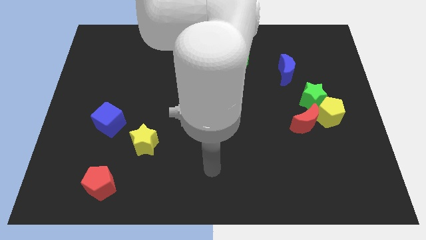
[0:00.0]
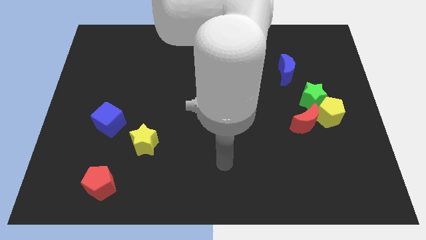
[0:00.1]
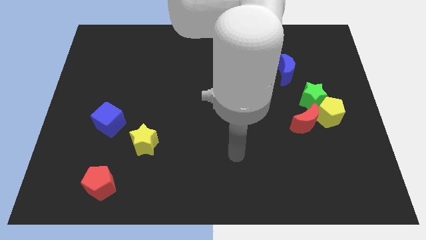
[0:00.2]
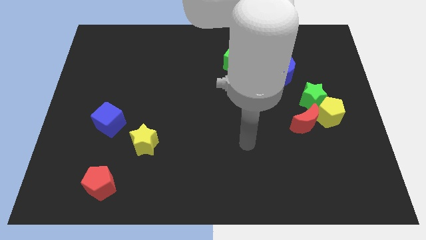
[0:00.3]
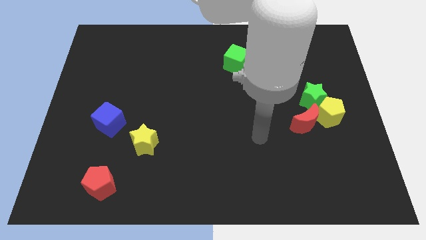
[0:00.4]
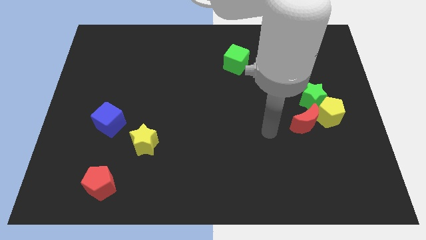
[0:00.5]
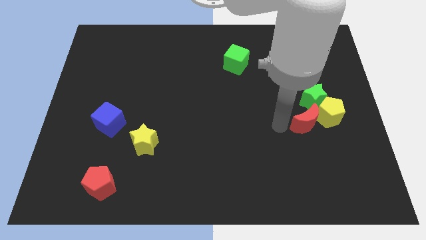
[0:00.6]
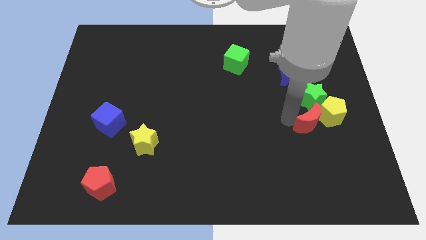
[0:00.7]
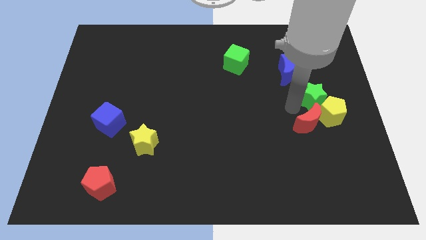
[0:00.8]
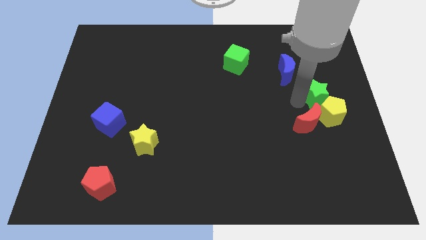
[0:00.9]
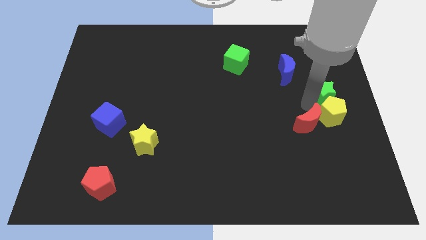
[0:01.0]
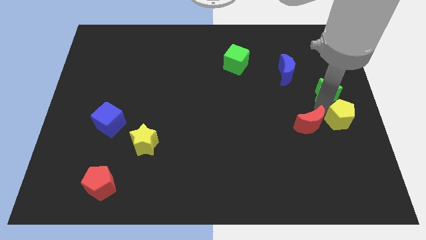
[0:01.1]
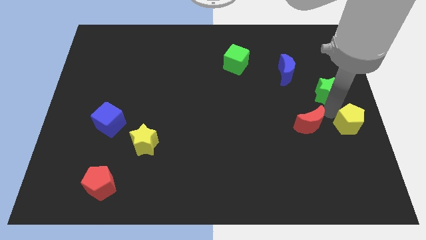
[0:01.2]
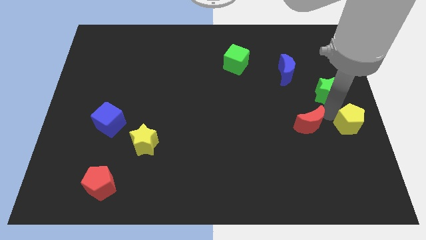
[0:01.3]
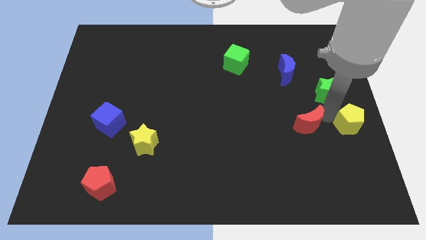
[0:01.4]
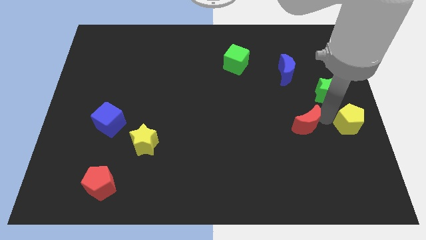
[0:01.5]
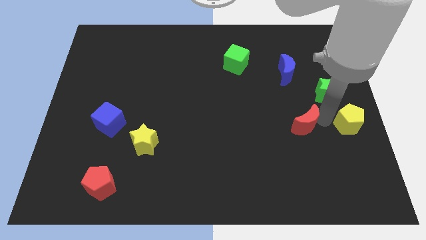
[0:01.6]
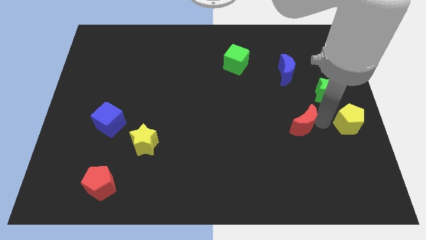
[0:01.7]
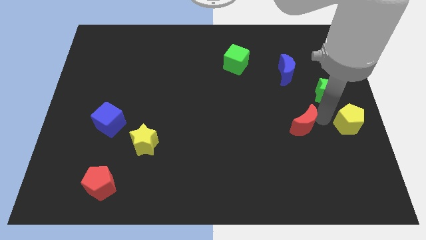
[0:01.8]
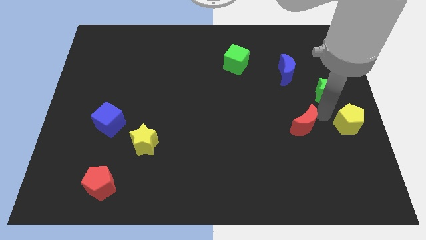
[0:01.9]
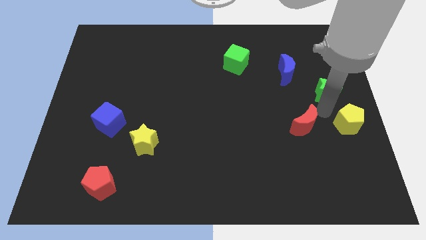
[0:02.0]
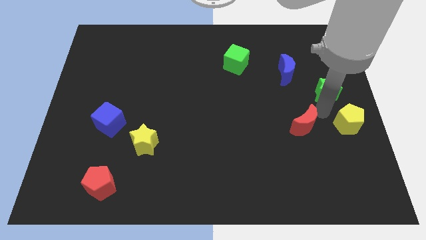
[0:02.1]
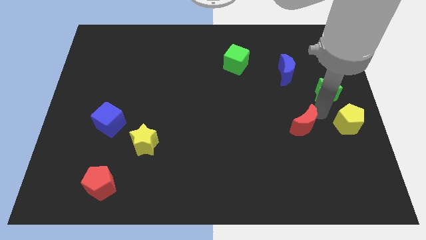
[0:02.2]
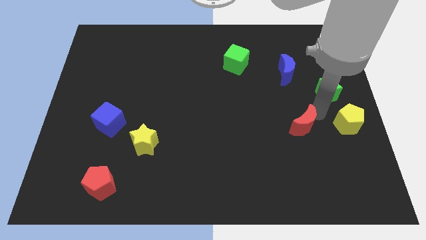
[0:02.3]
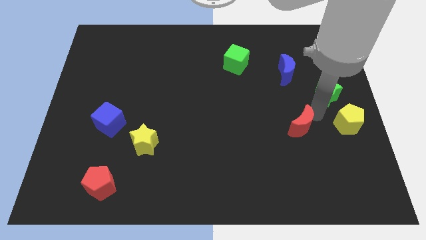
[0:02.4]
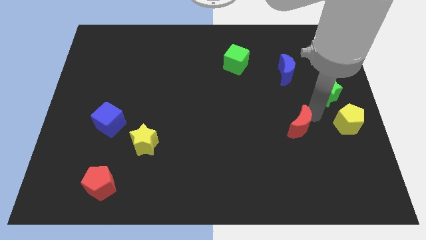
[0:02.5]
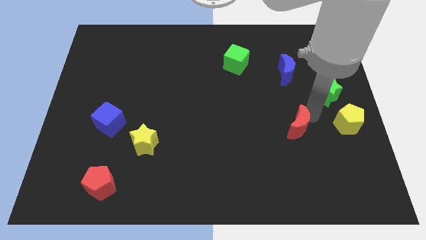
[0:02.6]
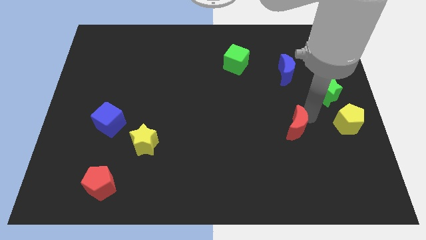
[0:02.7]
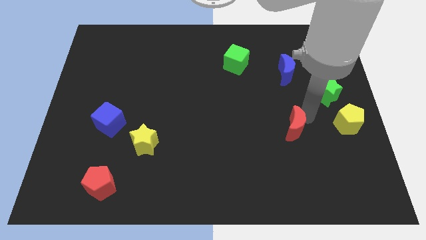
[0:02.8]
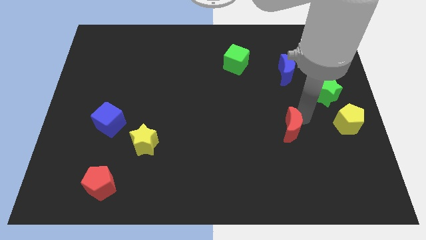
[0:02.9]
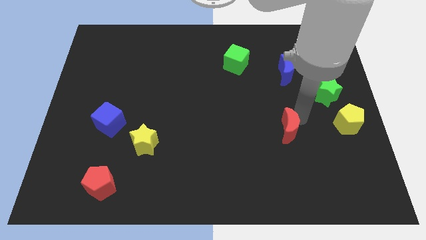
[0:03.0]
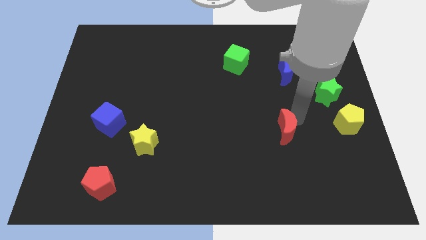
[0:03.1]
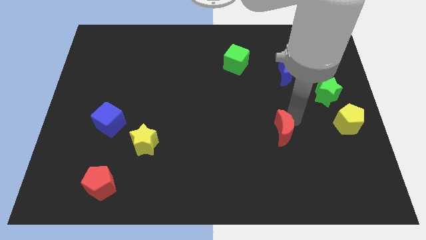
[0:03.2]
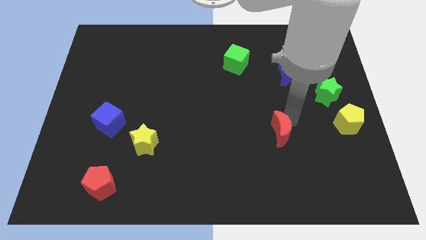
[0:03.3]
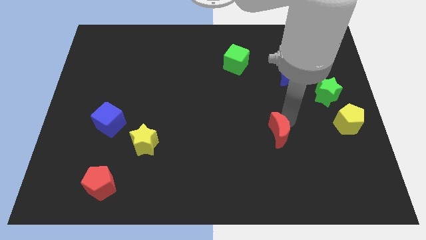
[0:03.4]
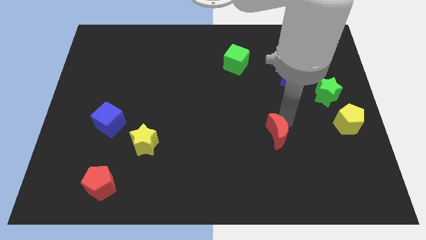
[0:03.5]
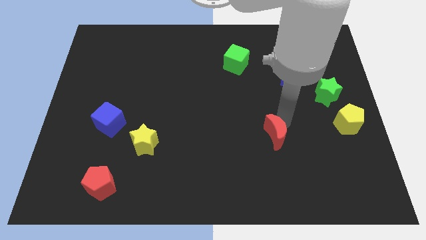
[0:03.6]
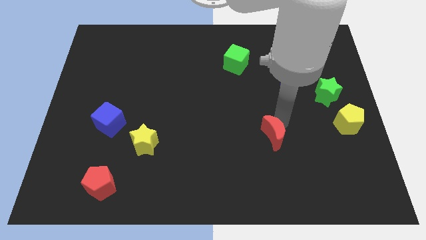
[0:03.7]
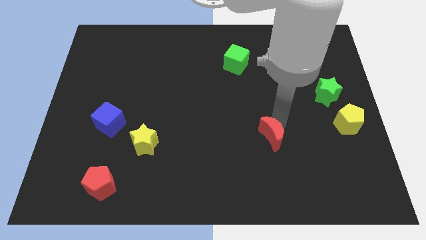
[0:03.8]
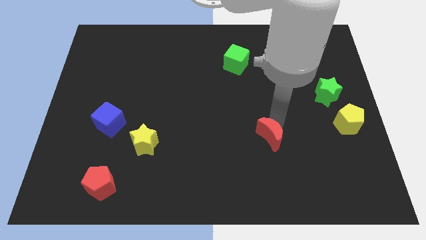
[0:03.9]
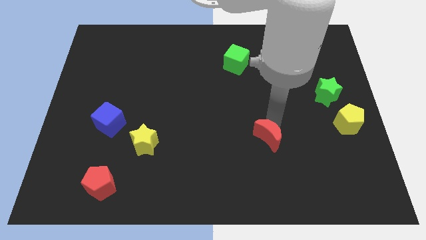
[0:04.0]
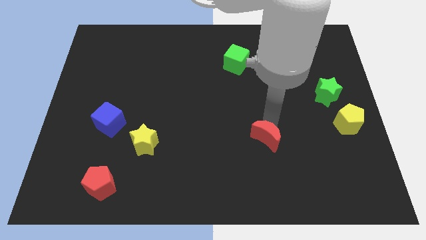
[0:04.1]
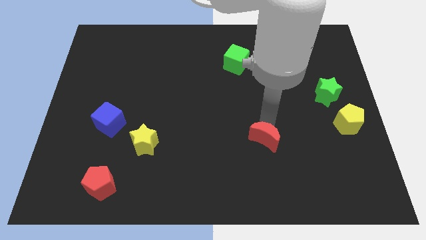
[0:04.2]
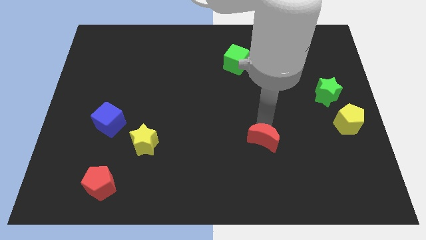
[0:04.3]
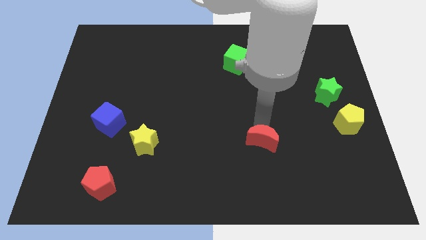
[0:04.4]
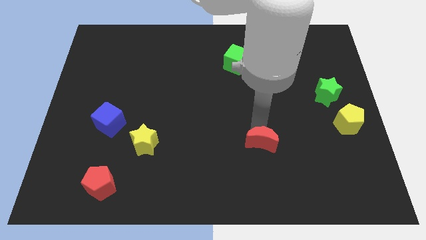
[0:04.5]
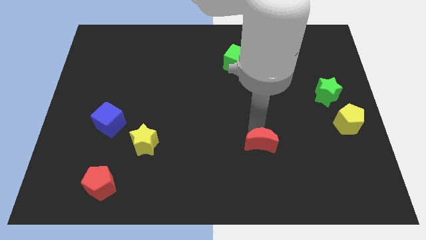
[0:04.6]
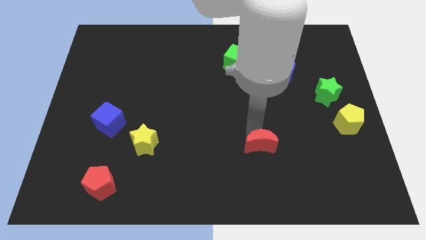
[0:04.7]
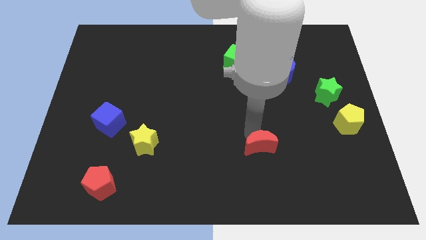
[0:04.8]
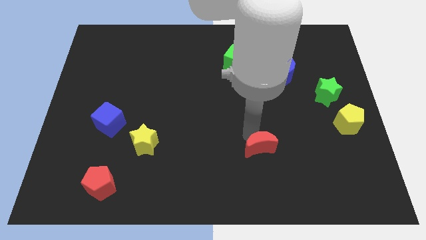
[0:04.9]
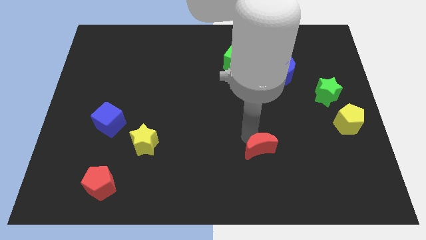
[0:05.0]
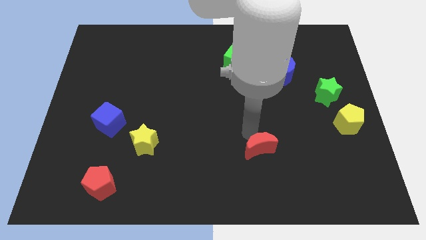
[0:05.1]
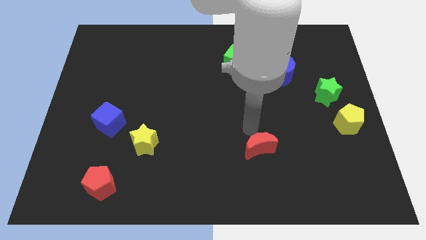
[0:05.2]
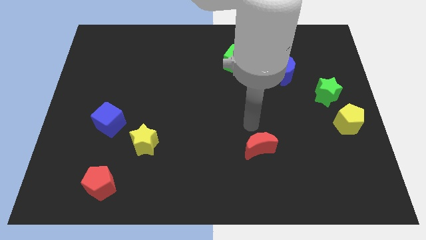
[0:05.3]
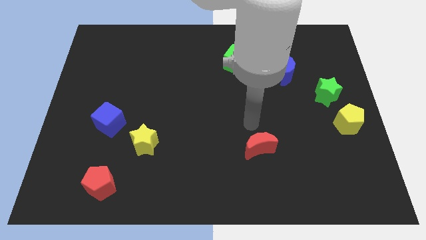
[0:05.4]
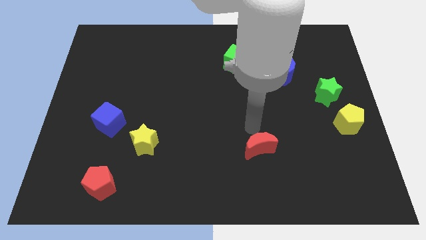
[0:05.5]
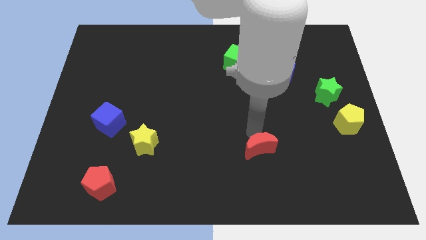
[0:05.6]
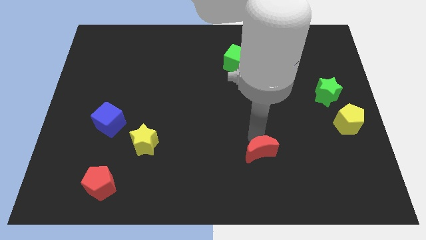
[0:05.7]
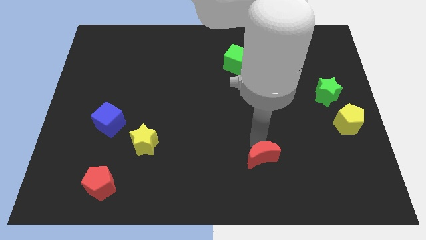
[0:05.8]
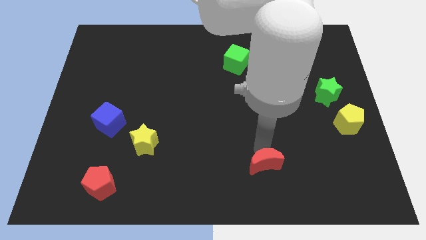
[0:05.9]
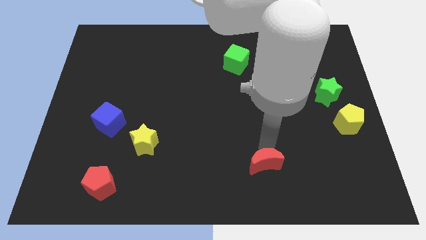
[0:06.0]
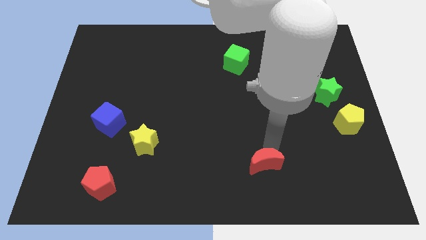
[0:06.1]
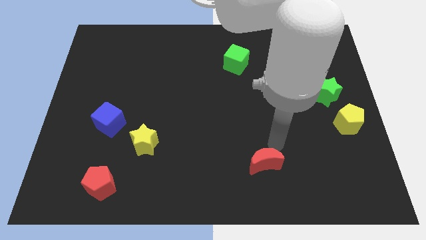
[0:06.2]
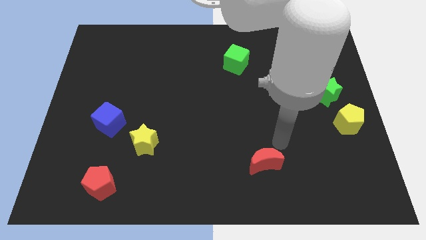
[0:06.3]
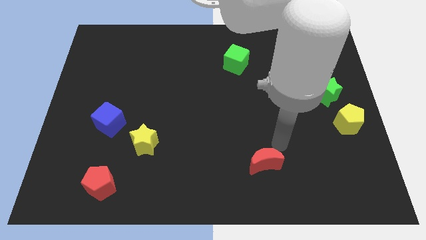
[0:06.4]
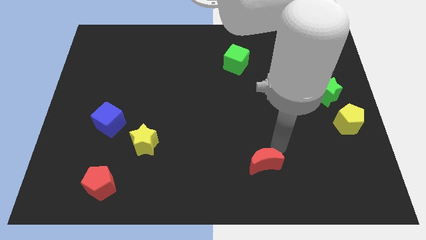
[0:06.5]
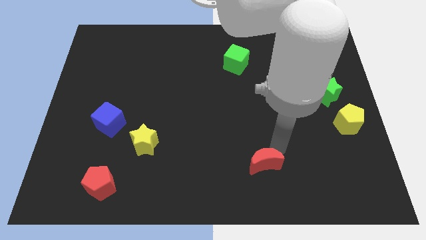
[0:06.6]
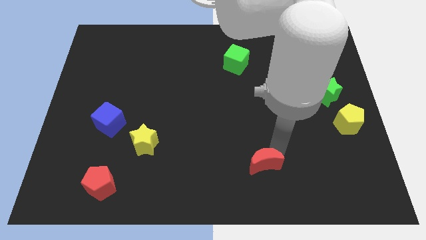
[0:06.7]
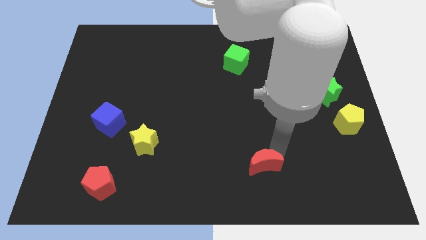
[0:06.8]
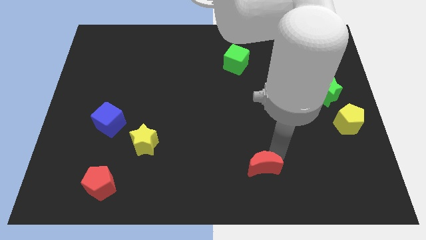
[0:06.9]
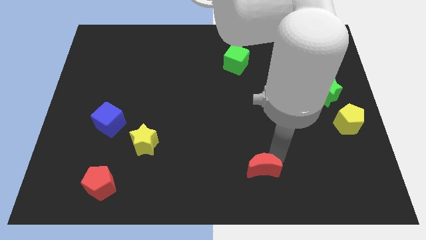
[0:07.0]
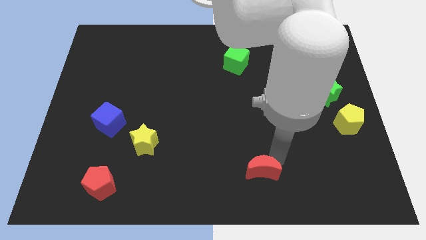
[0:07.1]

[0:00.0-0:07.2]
slide the red moon to the bottom
